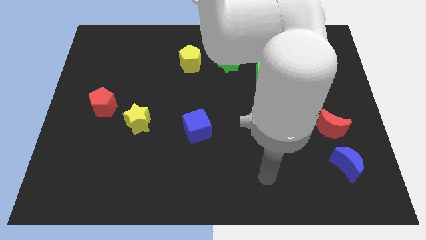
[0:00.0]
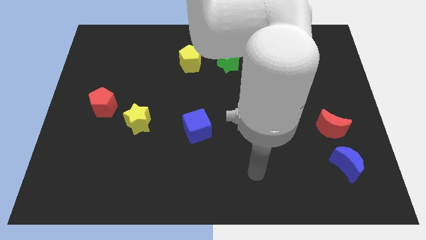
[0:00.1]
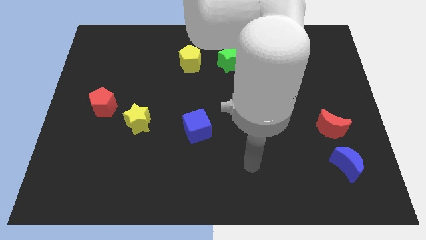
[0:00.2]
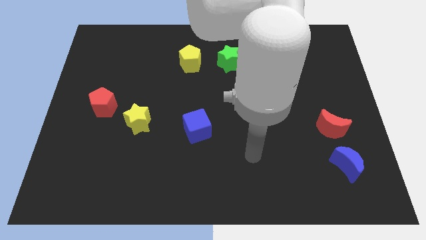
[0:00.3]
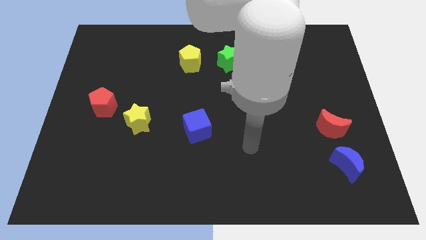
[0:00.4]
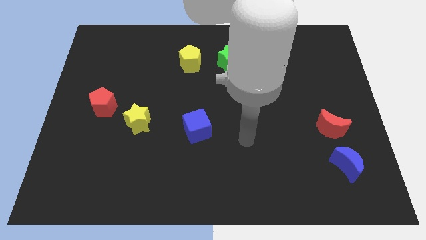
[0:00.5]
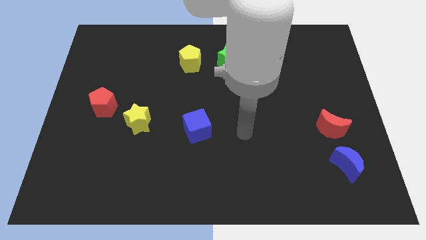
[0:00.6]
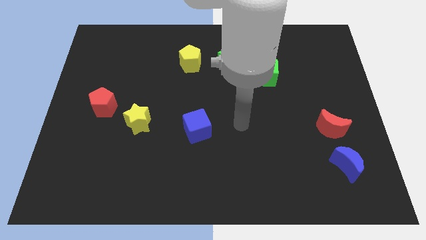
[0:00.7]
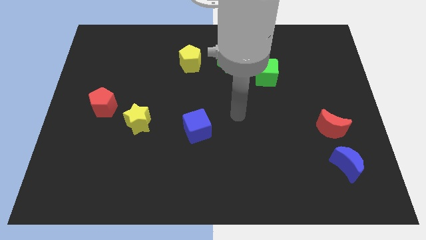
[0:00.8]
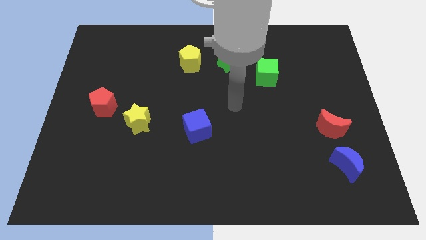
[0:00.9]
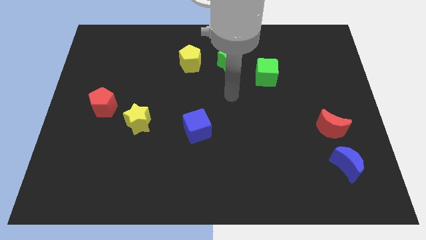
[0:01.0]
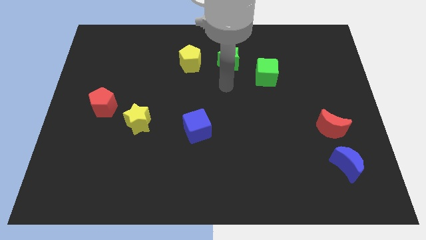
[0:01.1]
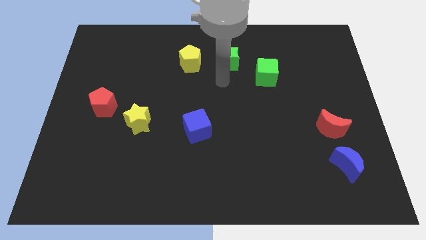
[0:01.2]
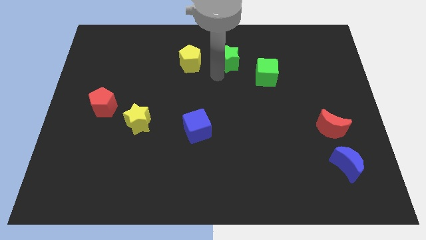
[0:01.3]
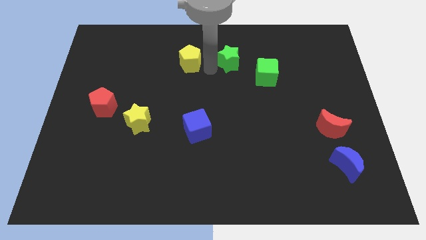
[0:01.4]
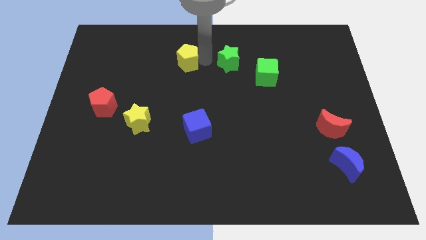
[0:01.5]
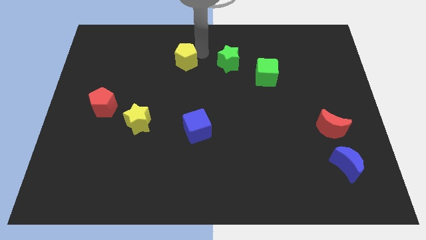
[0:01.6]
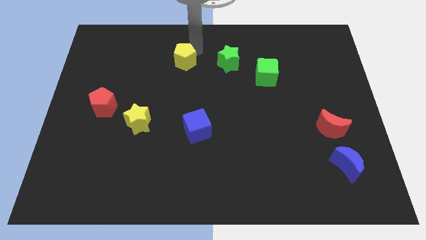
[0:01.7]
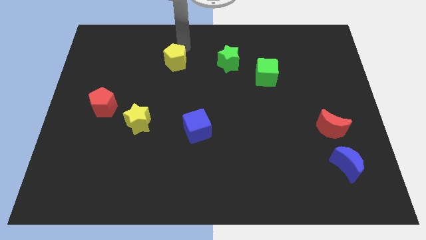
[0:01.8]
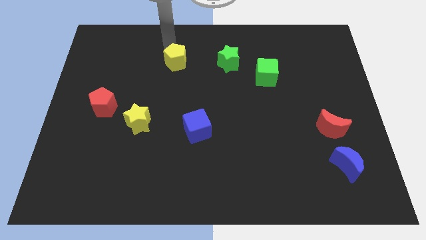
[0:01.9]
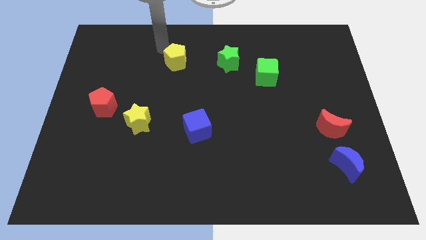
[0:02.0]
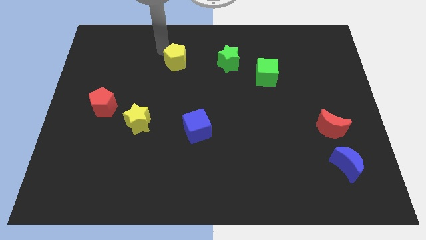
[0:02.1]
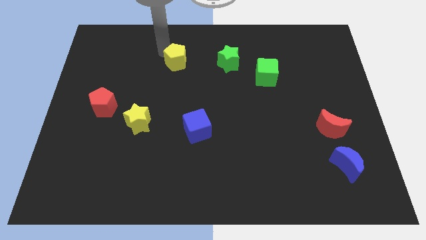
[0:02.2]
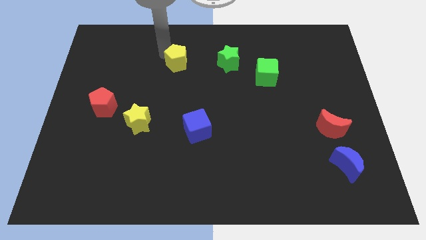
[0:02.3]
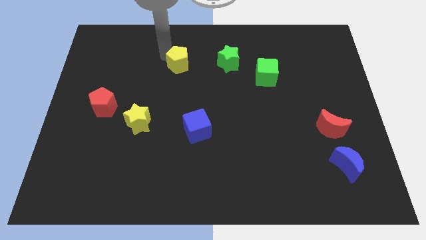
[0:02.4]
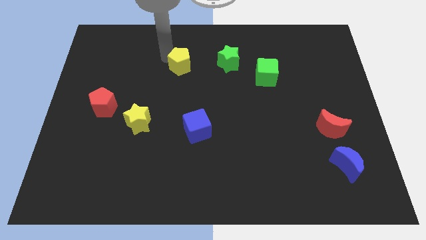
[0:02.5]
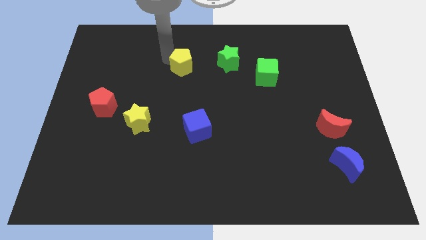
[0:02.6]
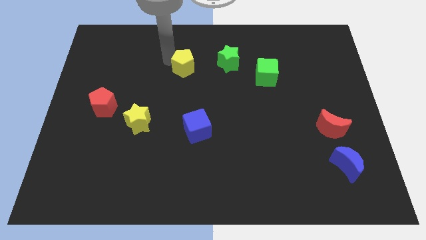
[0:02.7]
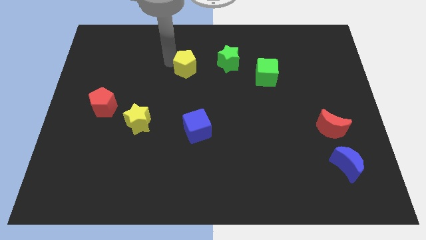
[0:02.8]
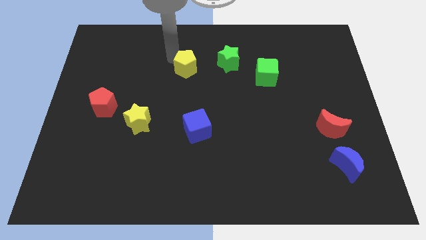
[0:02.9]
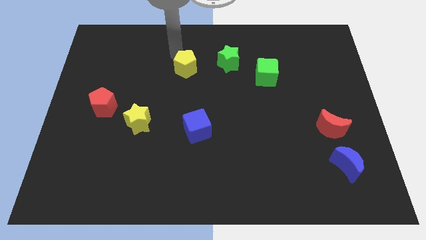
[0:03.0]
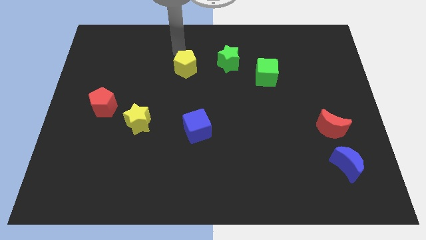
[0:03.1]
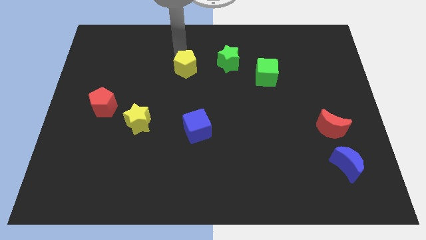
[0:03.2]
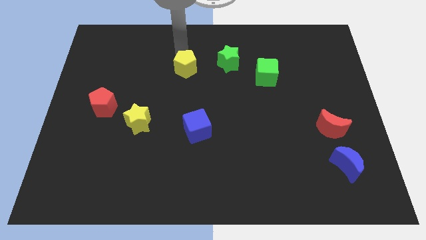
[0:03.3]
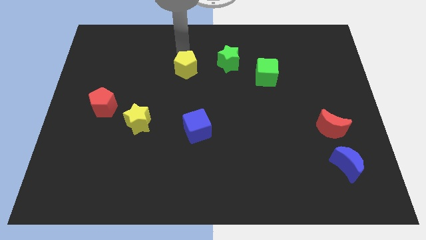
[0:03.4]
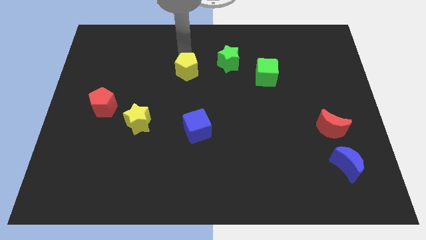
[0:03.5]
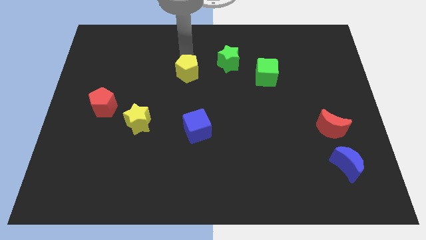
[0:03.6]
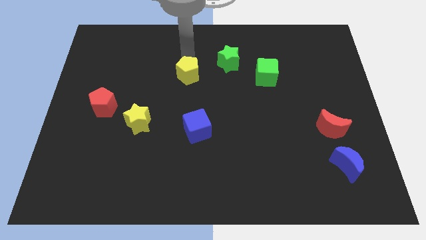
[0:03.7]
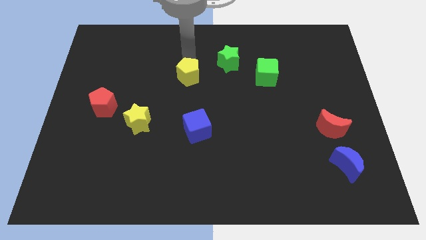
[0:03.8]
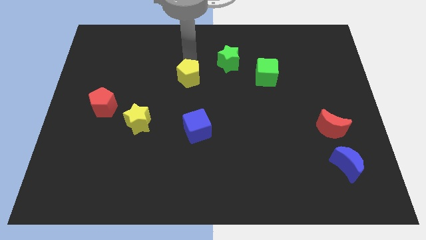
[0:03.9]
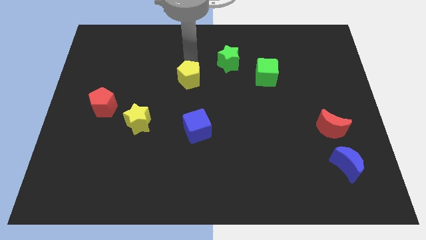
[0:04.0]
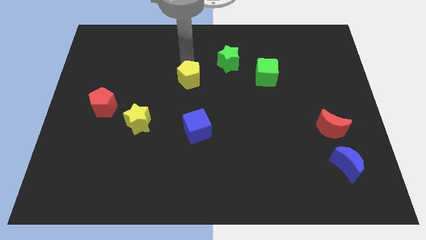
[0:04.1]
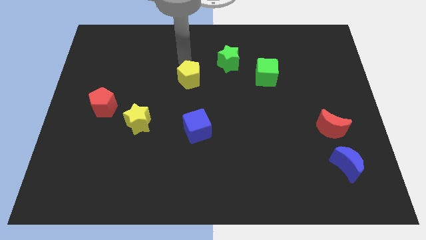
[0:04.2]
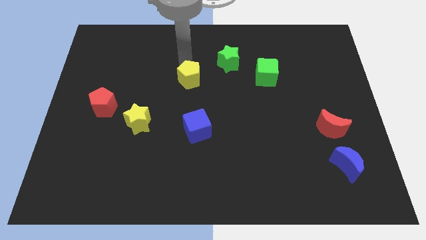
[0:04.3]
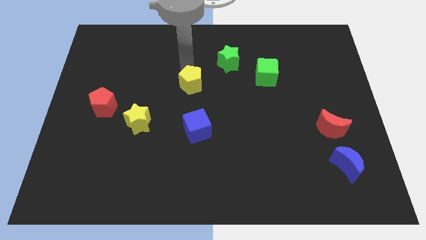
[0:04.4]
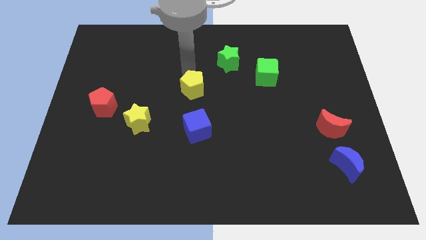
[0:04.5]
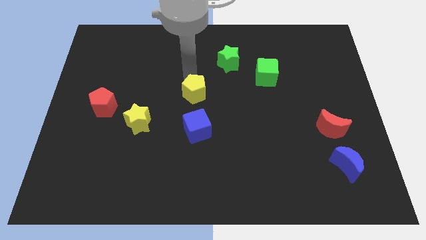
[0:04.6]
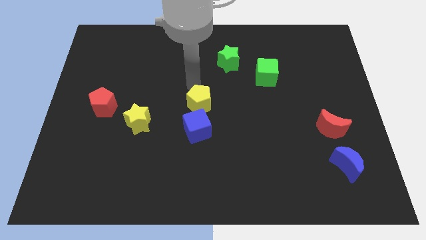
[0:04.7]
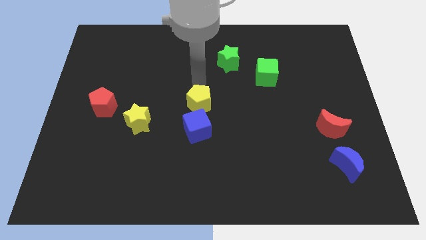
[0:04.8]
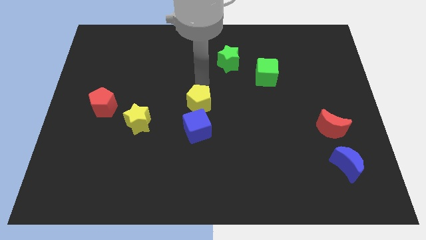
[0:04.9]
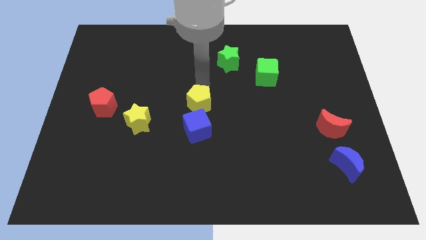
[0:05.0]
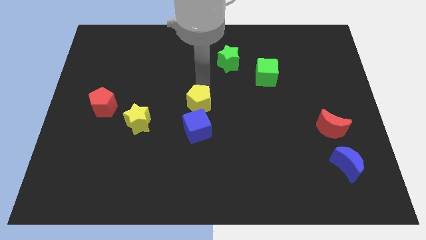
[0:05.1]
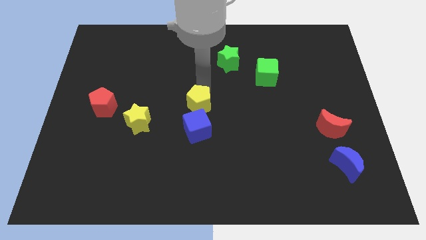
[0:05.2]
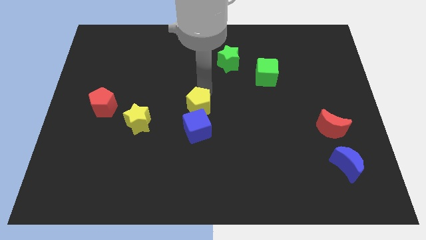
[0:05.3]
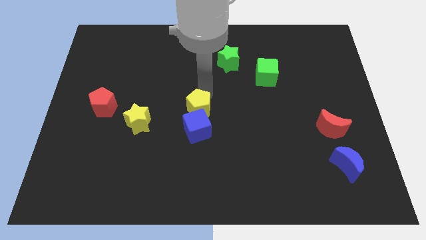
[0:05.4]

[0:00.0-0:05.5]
push the yellow pentagon close to the blue cube

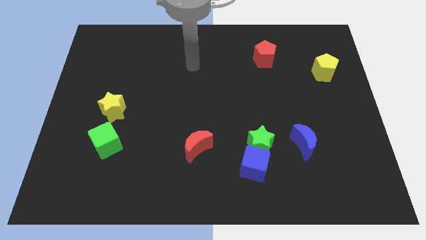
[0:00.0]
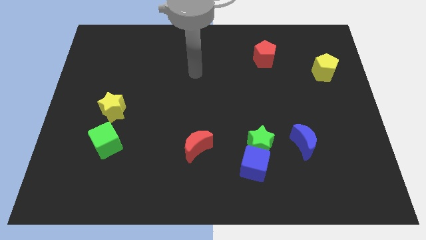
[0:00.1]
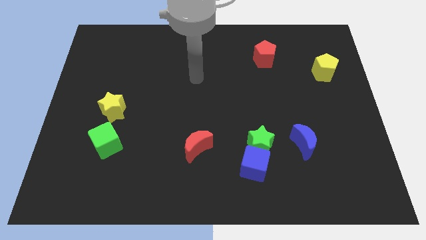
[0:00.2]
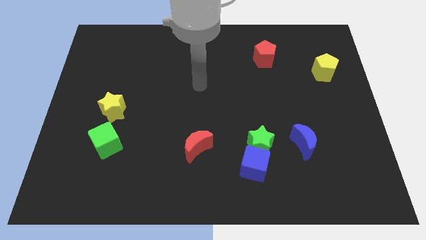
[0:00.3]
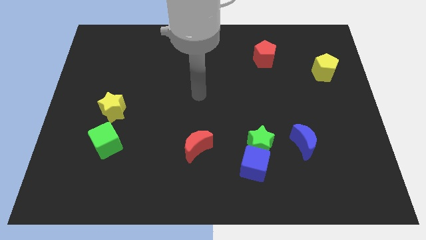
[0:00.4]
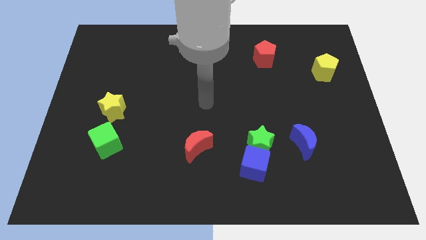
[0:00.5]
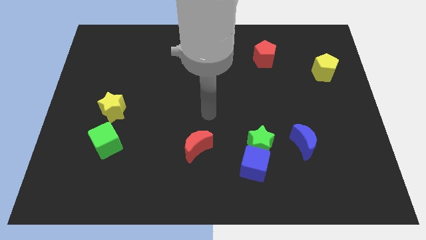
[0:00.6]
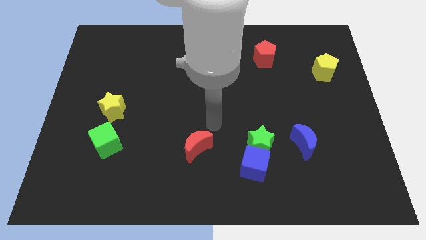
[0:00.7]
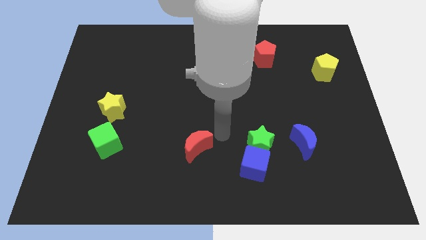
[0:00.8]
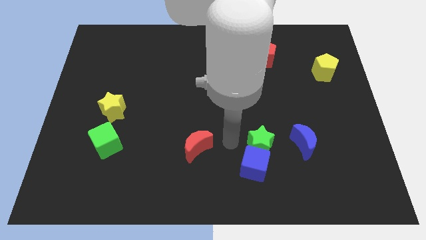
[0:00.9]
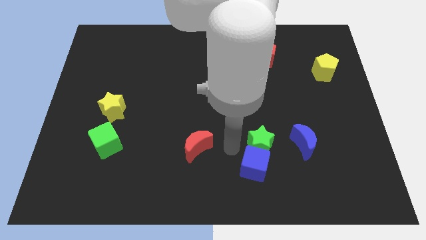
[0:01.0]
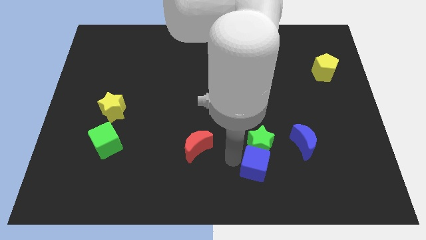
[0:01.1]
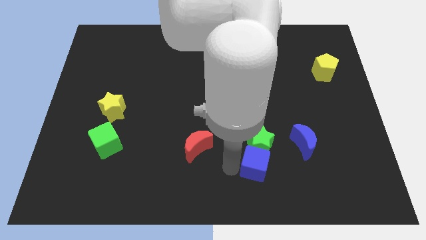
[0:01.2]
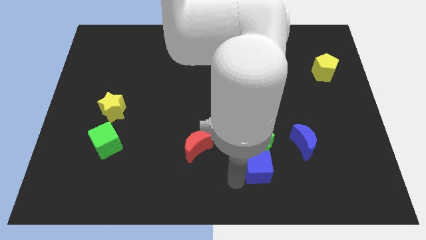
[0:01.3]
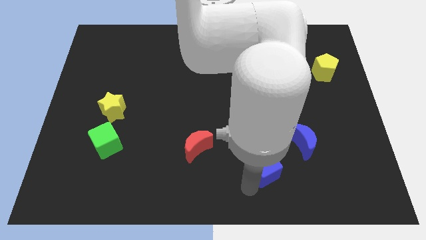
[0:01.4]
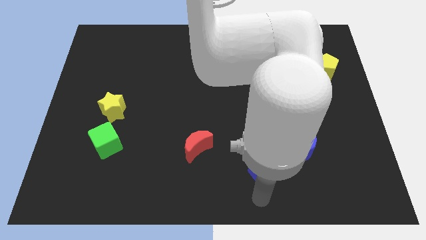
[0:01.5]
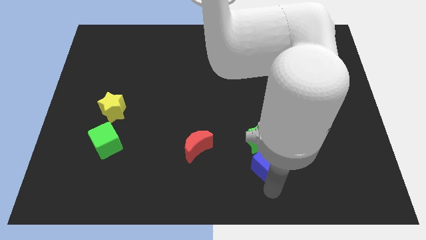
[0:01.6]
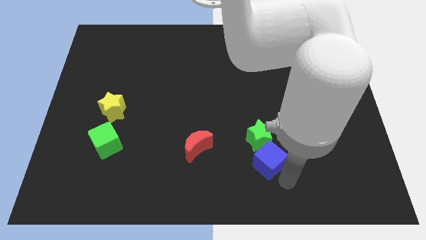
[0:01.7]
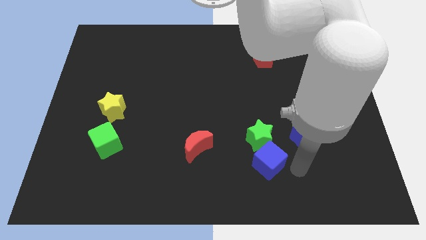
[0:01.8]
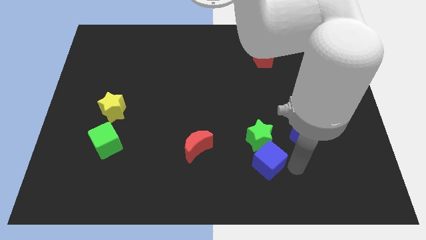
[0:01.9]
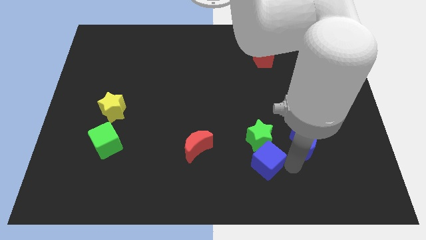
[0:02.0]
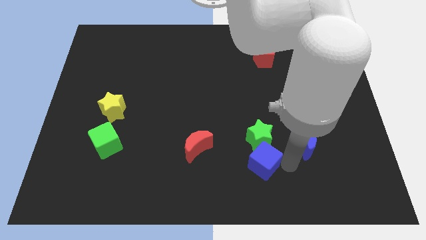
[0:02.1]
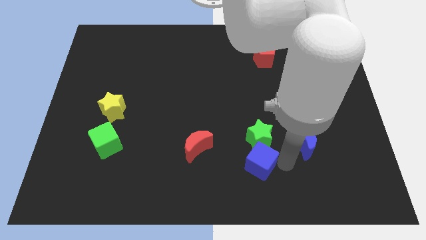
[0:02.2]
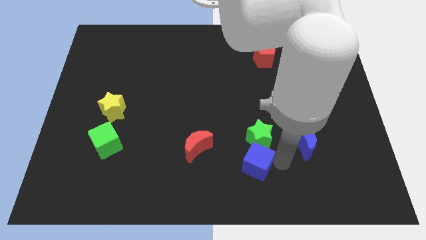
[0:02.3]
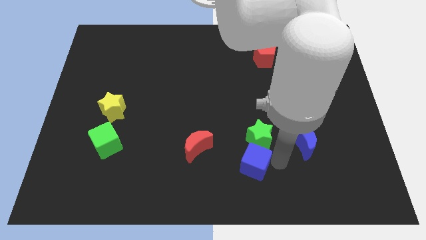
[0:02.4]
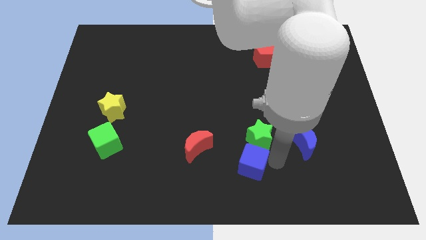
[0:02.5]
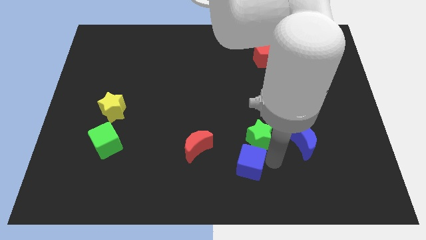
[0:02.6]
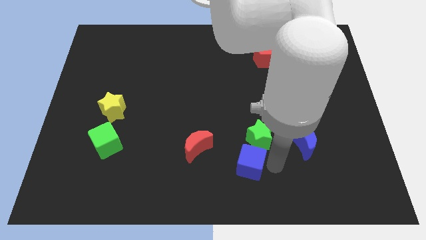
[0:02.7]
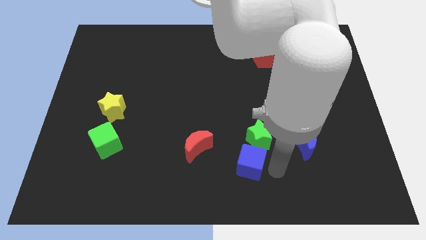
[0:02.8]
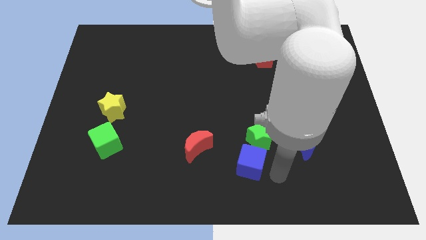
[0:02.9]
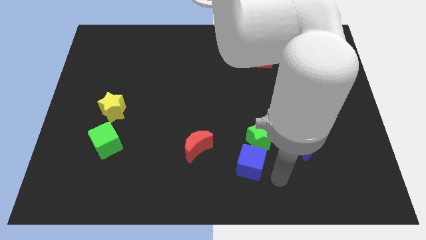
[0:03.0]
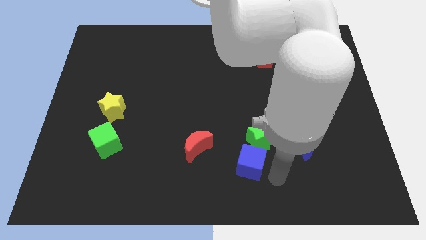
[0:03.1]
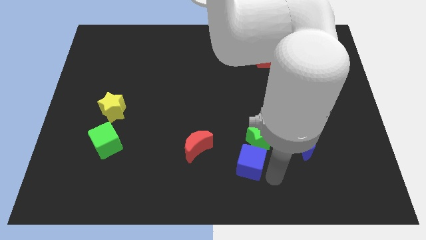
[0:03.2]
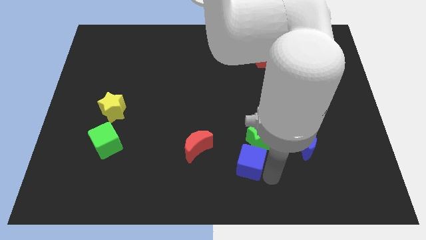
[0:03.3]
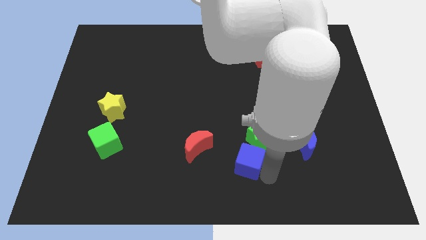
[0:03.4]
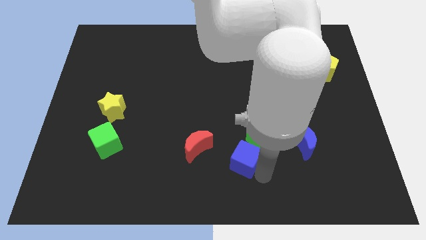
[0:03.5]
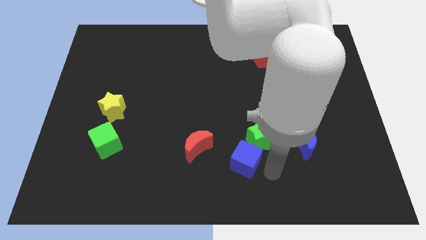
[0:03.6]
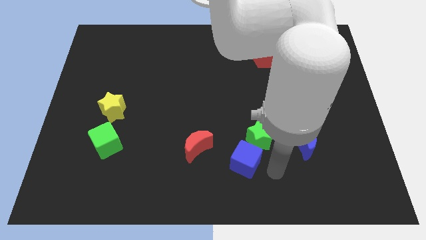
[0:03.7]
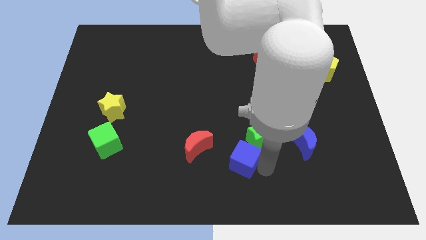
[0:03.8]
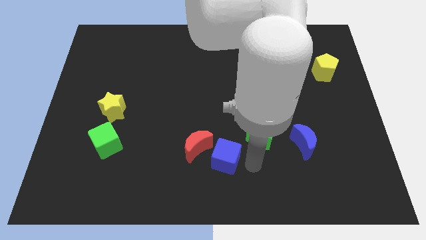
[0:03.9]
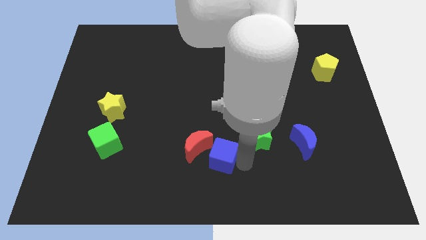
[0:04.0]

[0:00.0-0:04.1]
put the blue cube to the red moon
